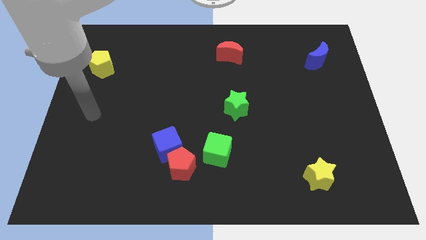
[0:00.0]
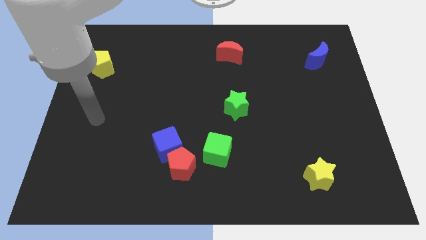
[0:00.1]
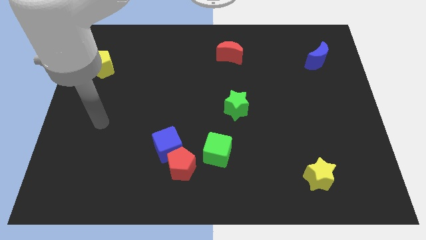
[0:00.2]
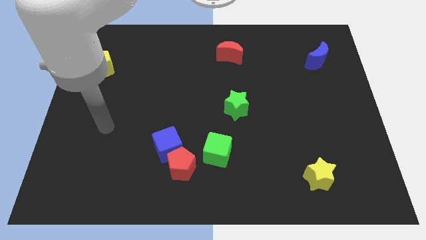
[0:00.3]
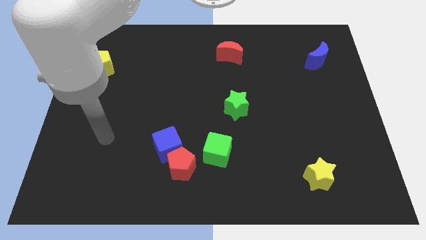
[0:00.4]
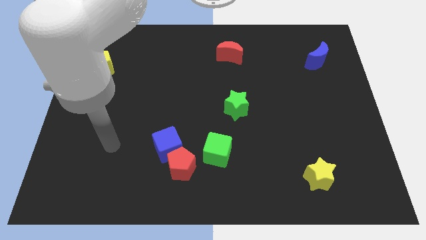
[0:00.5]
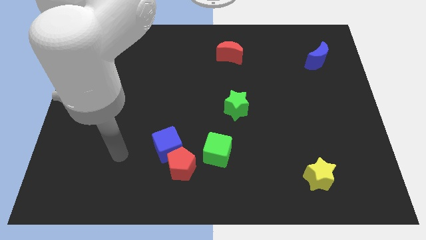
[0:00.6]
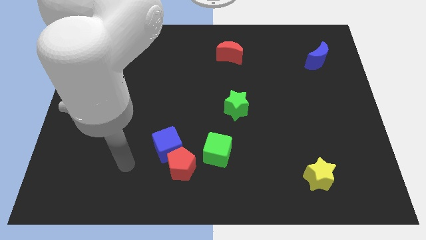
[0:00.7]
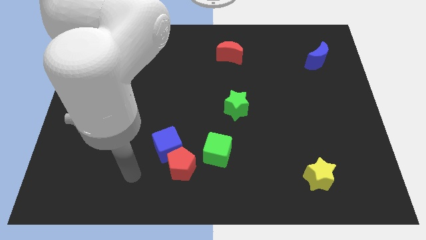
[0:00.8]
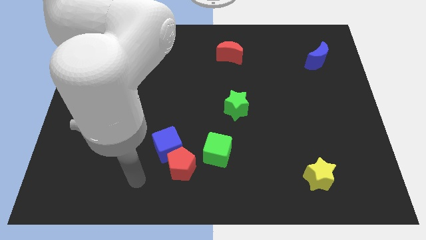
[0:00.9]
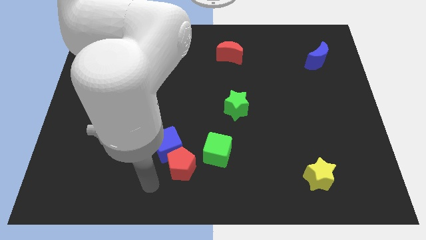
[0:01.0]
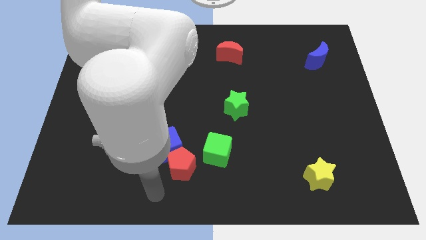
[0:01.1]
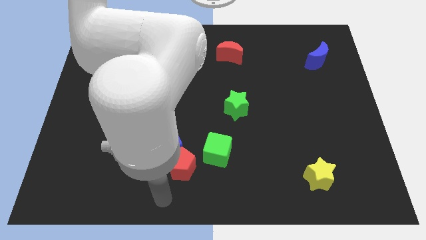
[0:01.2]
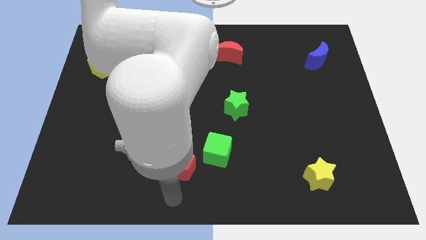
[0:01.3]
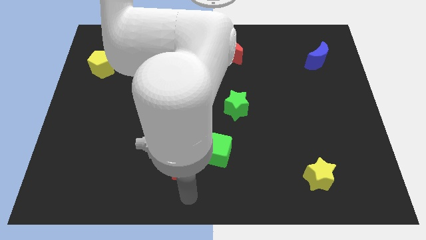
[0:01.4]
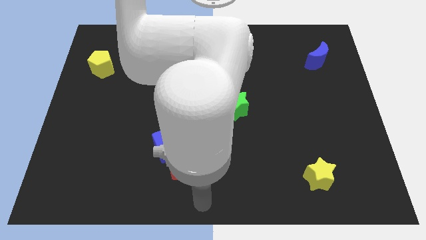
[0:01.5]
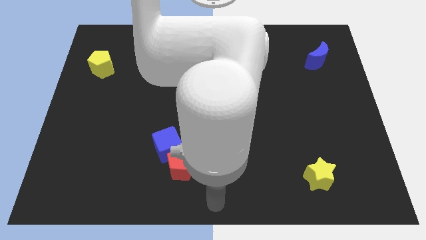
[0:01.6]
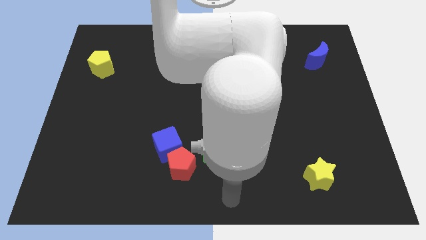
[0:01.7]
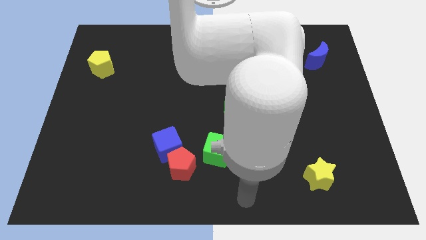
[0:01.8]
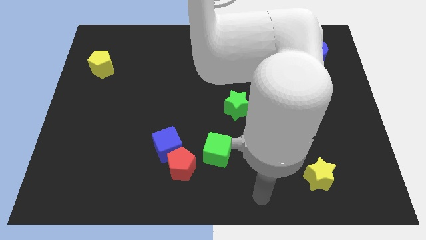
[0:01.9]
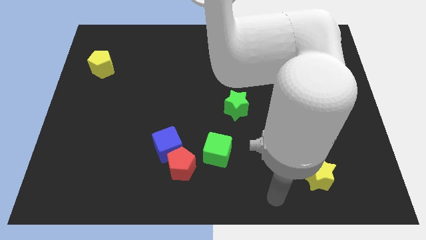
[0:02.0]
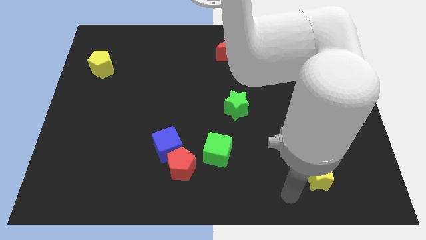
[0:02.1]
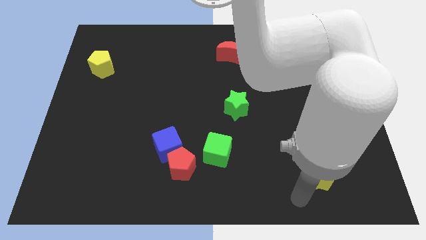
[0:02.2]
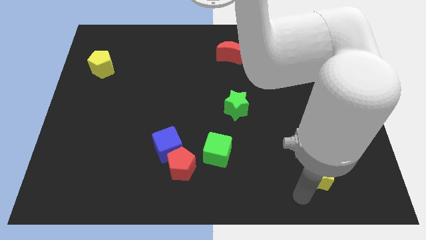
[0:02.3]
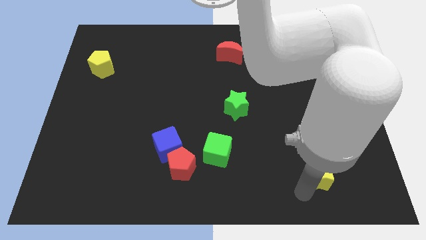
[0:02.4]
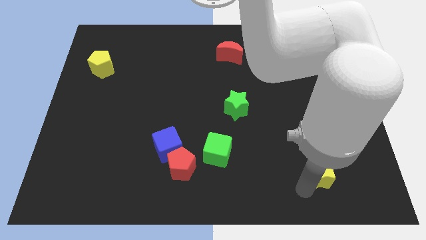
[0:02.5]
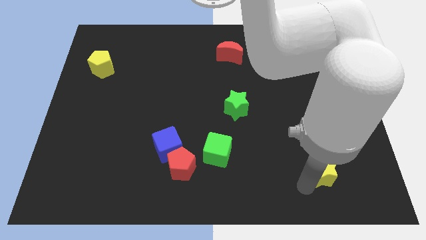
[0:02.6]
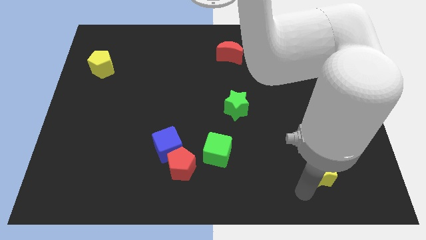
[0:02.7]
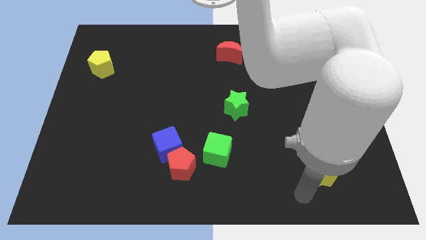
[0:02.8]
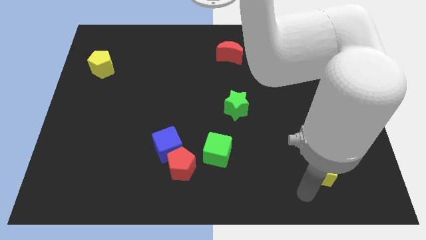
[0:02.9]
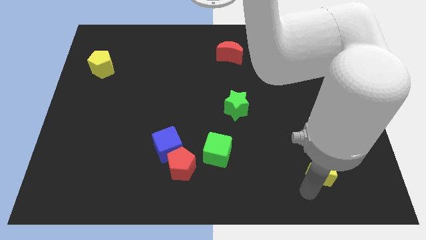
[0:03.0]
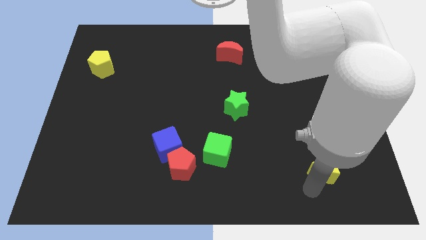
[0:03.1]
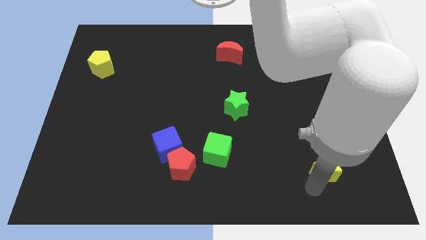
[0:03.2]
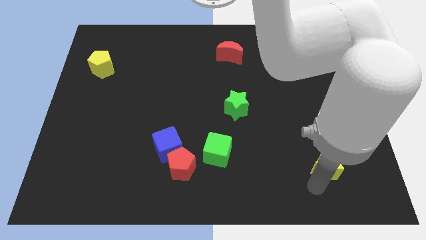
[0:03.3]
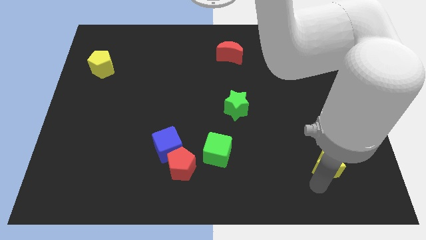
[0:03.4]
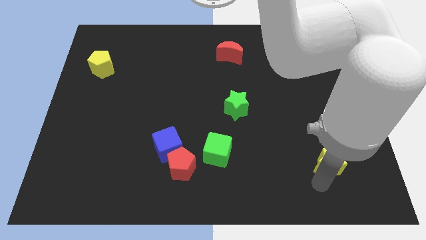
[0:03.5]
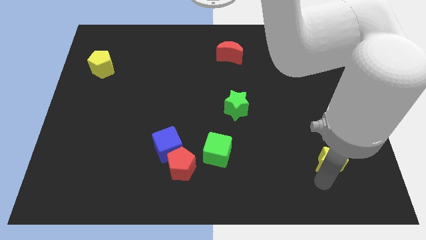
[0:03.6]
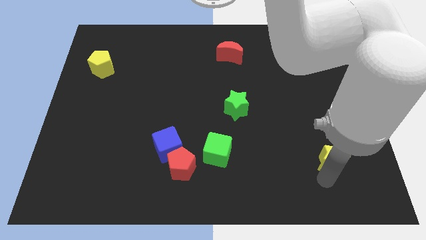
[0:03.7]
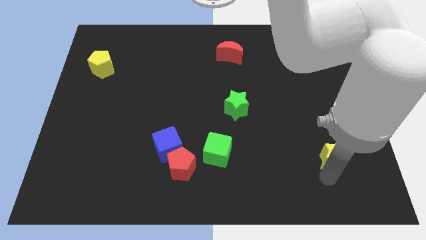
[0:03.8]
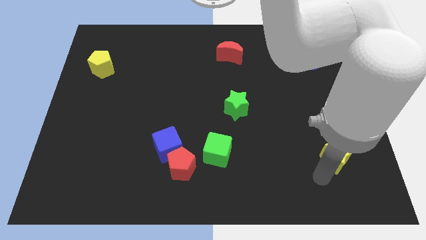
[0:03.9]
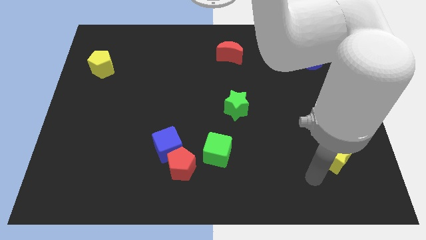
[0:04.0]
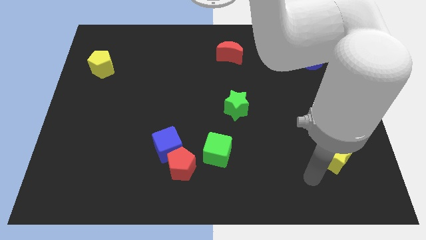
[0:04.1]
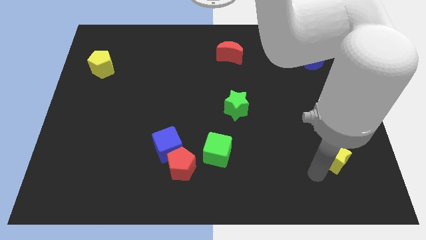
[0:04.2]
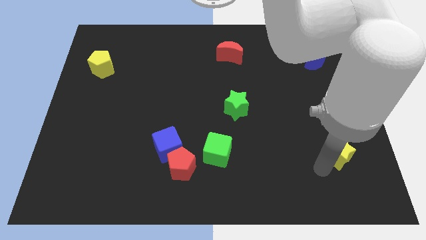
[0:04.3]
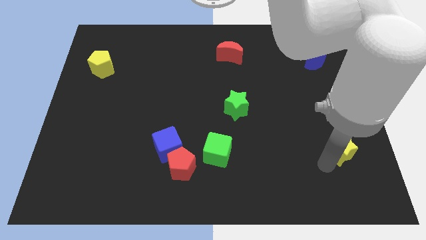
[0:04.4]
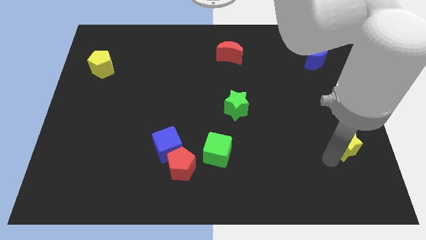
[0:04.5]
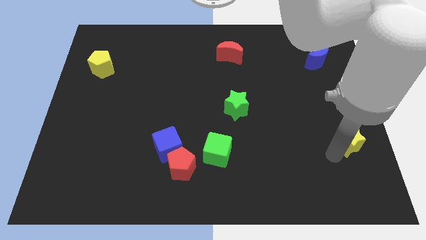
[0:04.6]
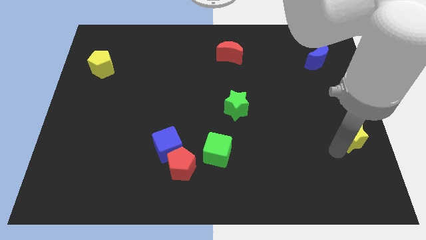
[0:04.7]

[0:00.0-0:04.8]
push the yellow star to the right side of the board

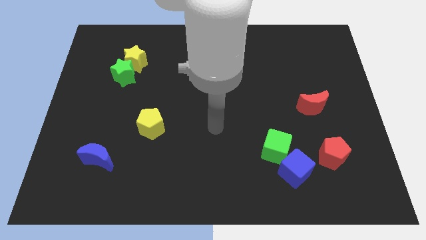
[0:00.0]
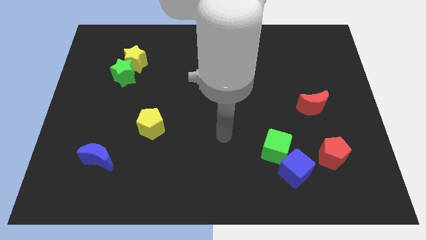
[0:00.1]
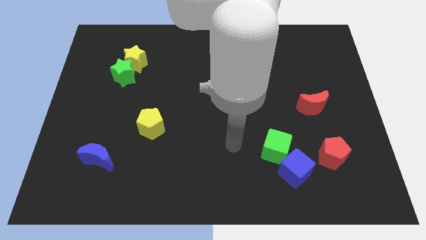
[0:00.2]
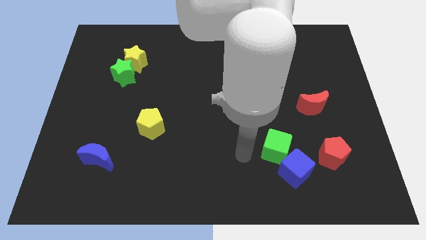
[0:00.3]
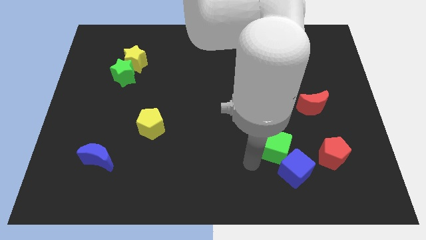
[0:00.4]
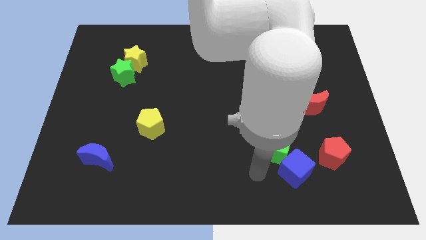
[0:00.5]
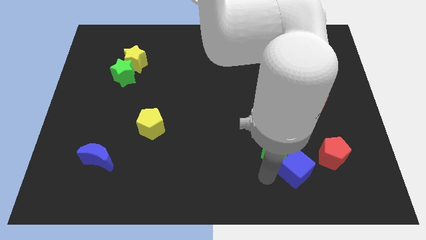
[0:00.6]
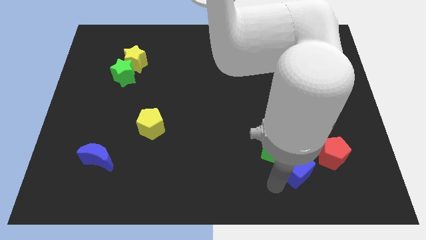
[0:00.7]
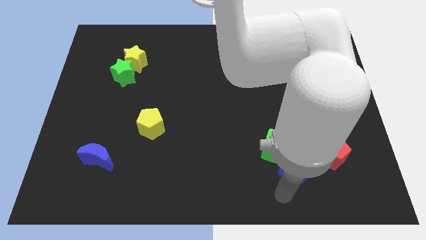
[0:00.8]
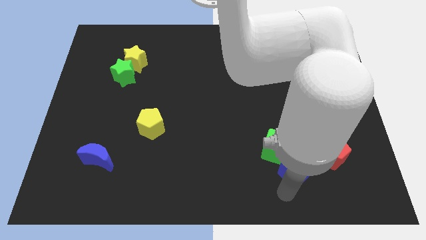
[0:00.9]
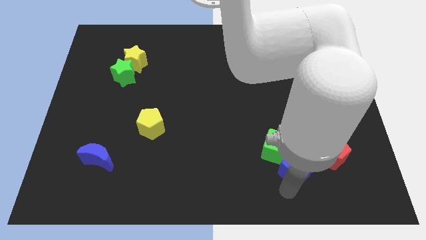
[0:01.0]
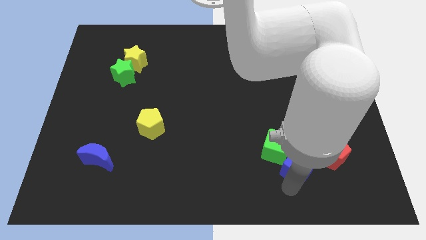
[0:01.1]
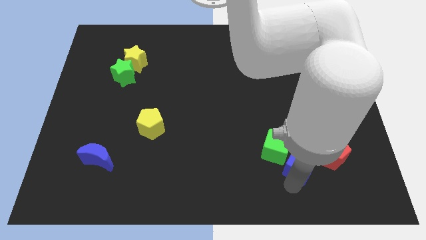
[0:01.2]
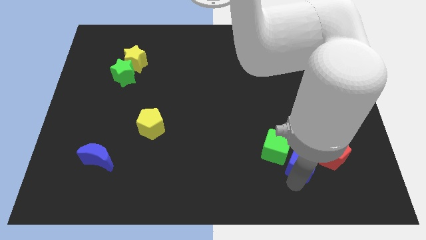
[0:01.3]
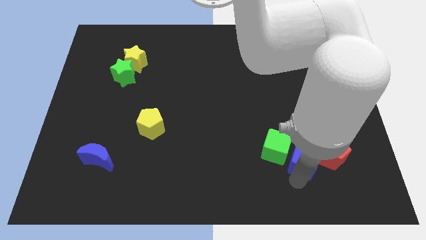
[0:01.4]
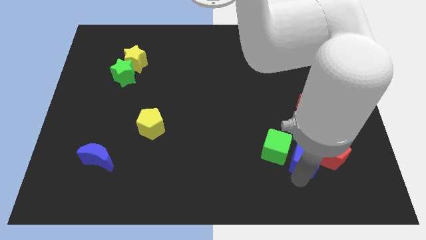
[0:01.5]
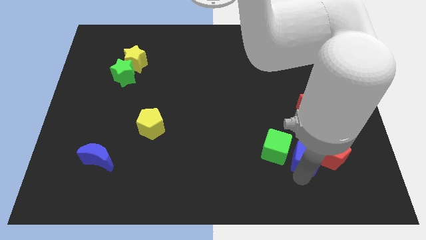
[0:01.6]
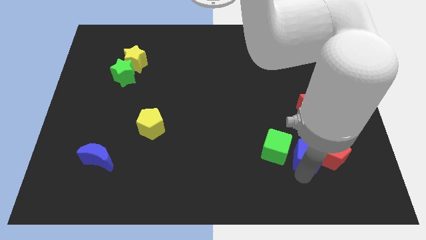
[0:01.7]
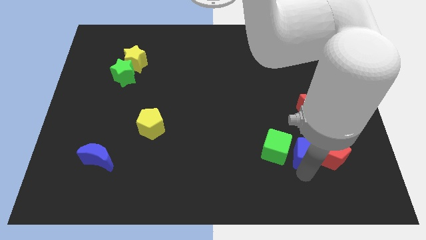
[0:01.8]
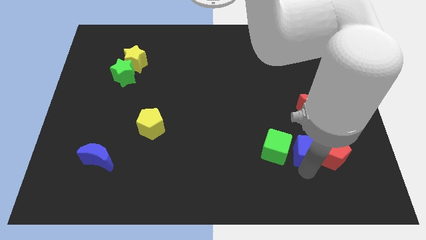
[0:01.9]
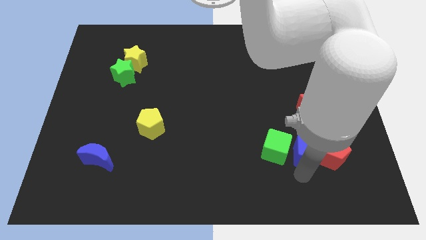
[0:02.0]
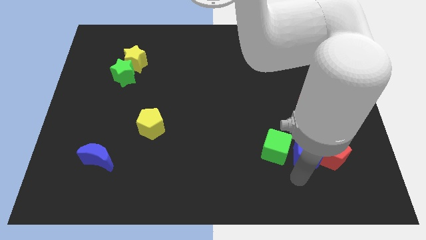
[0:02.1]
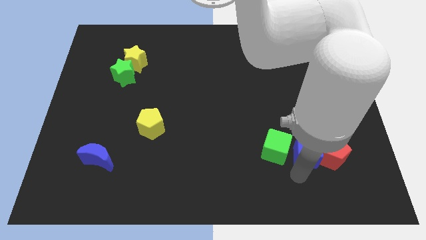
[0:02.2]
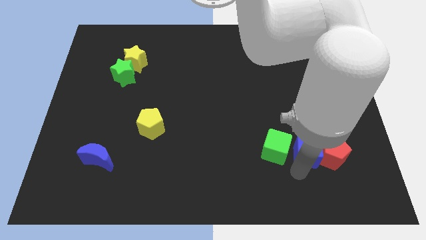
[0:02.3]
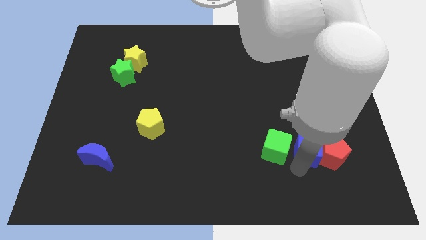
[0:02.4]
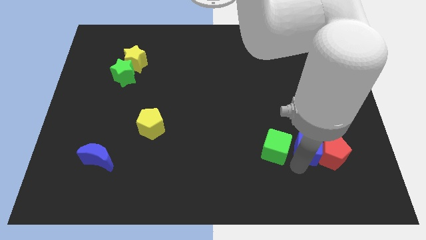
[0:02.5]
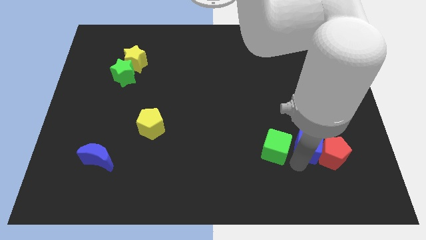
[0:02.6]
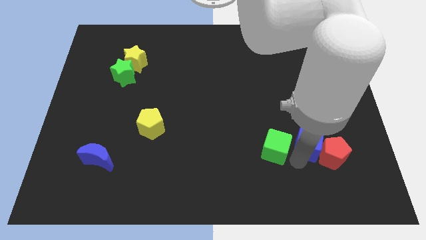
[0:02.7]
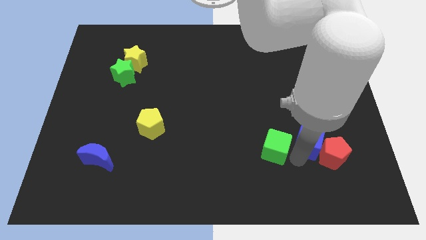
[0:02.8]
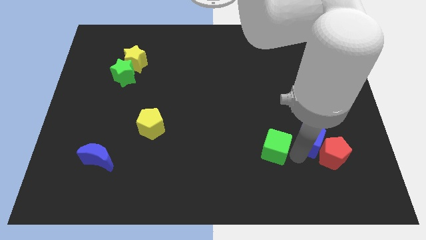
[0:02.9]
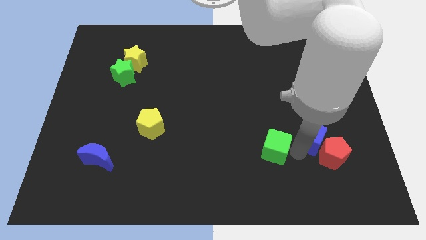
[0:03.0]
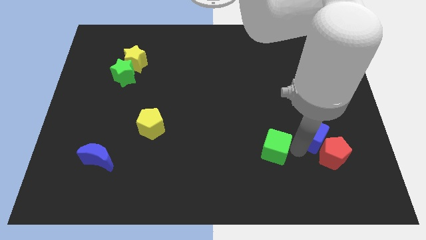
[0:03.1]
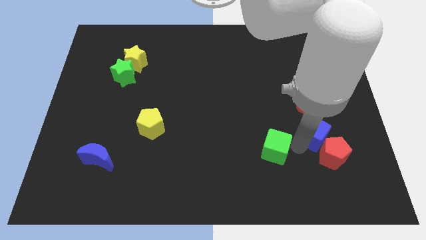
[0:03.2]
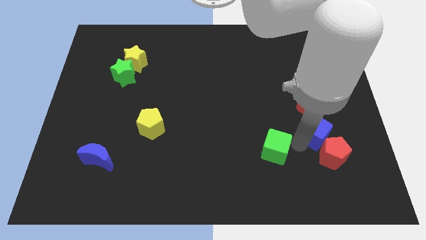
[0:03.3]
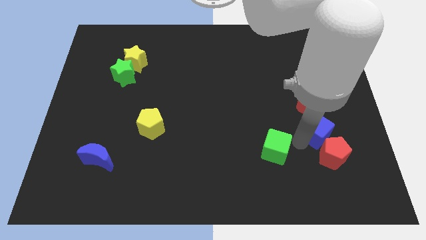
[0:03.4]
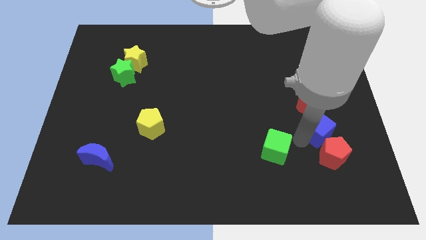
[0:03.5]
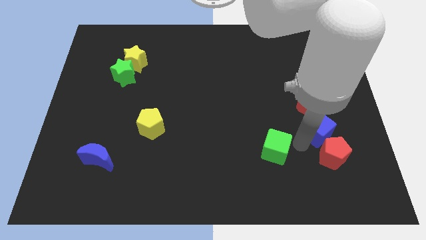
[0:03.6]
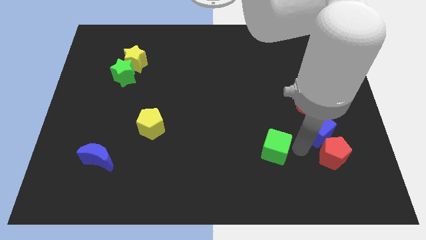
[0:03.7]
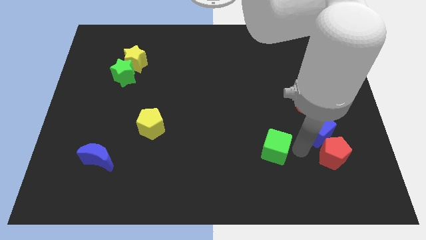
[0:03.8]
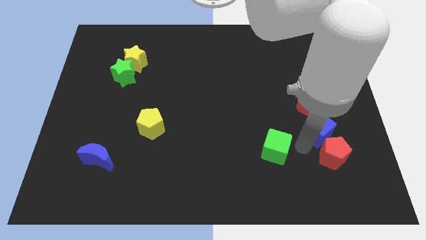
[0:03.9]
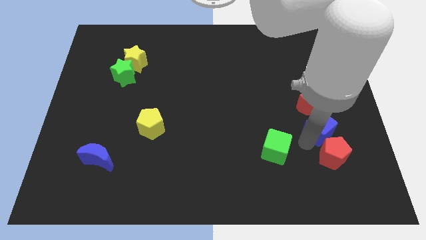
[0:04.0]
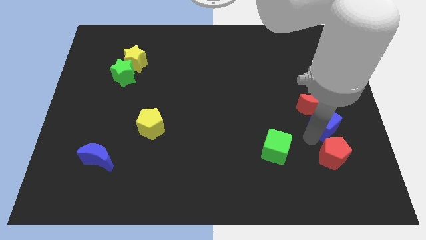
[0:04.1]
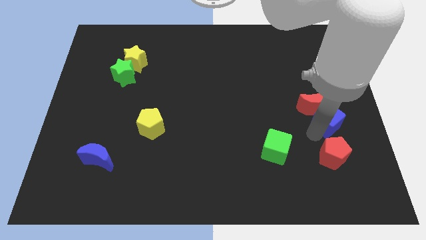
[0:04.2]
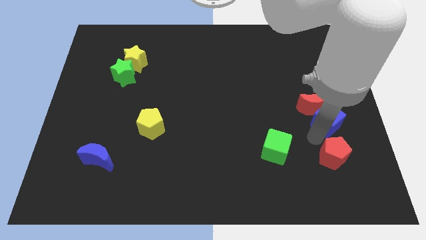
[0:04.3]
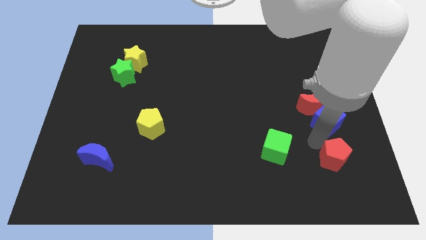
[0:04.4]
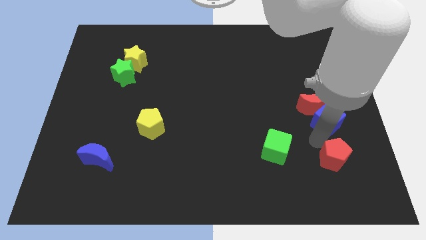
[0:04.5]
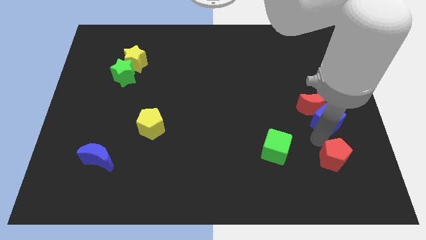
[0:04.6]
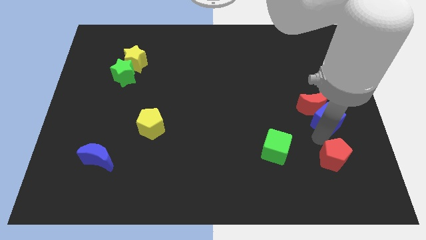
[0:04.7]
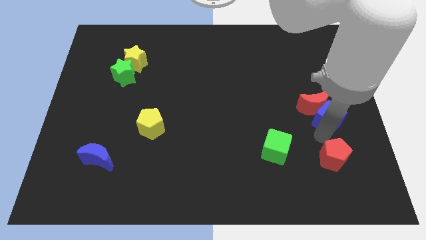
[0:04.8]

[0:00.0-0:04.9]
put the blue cube to the right side
